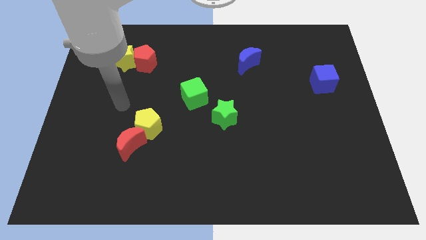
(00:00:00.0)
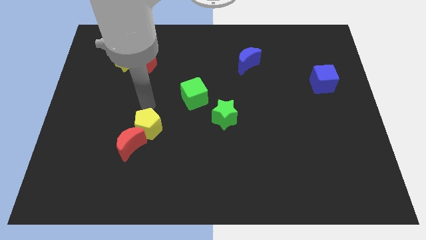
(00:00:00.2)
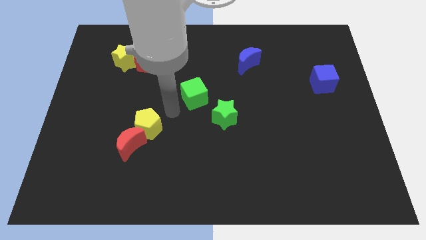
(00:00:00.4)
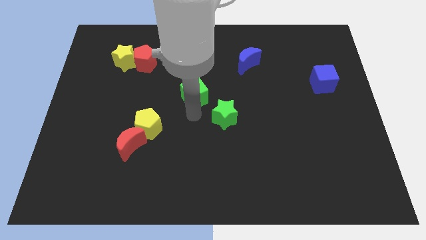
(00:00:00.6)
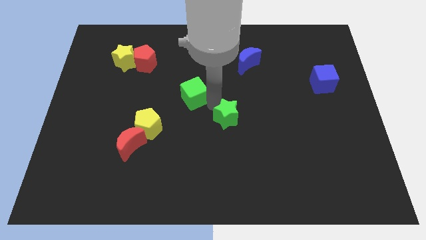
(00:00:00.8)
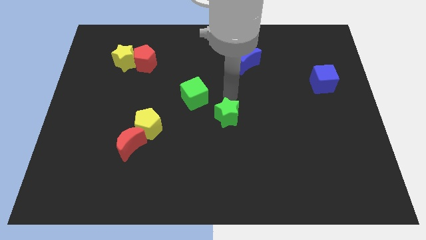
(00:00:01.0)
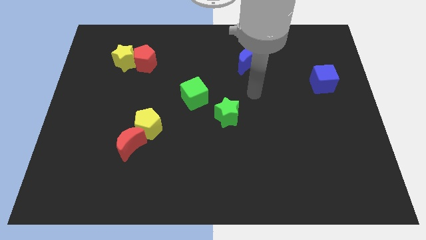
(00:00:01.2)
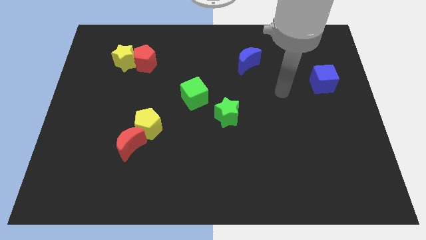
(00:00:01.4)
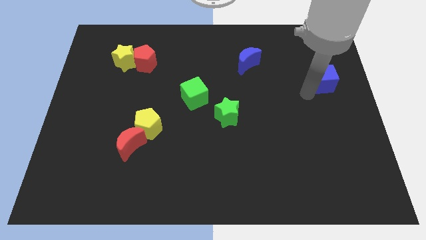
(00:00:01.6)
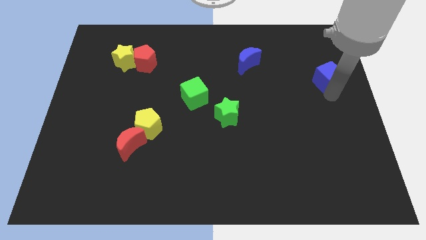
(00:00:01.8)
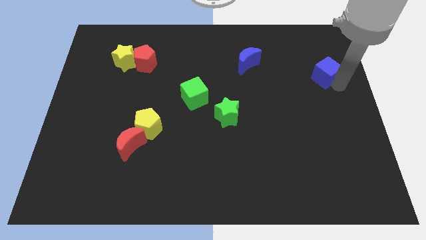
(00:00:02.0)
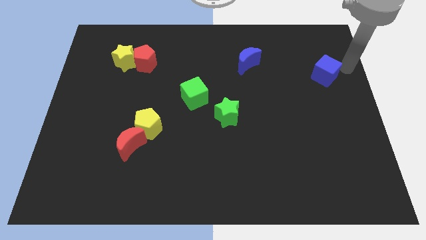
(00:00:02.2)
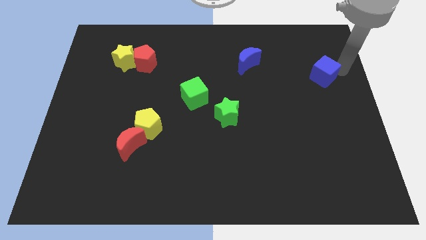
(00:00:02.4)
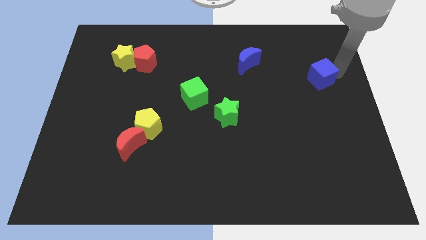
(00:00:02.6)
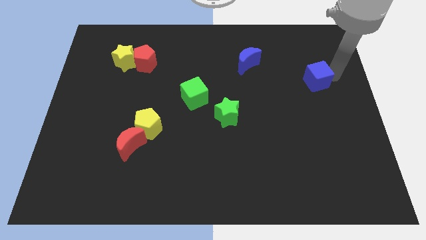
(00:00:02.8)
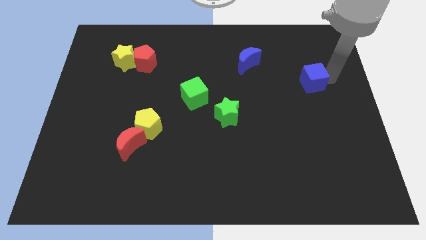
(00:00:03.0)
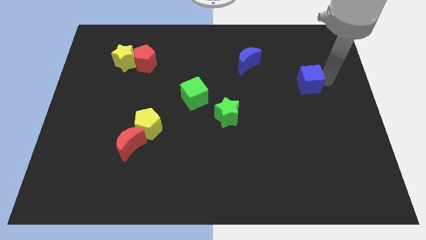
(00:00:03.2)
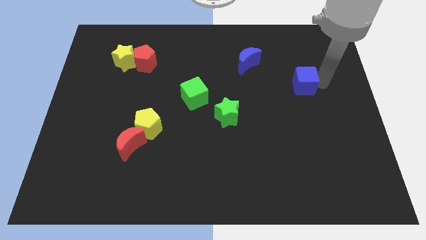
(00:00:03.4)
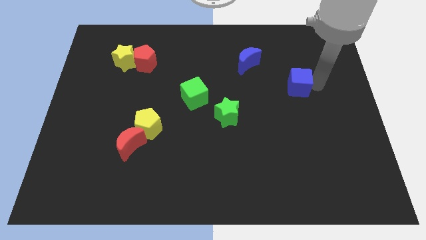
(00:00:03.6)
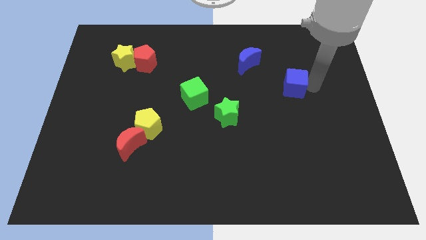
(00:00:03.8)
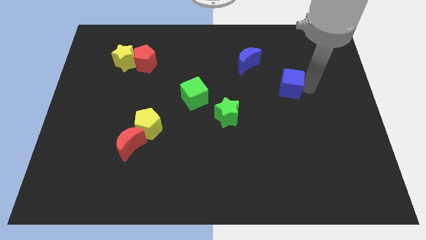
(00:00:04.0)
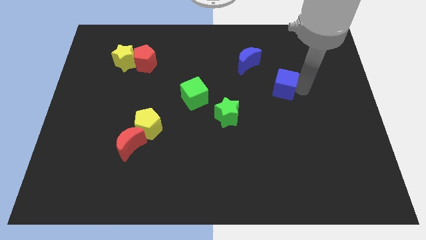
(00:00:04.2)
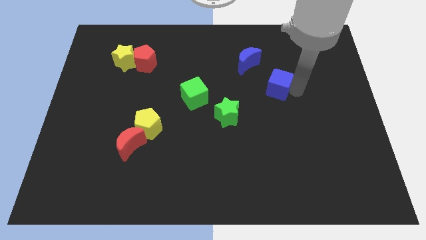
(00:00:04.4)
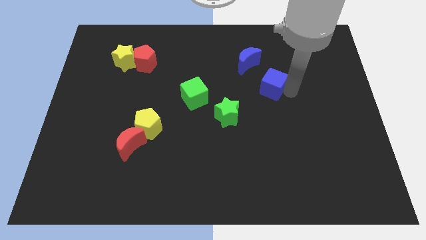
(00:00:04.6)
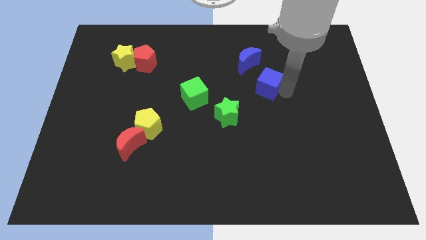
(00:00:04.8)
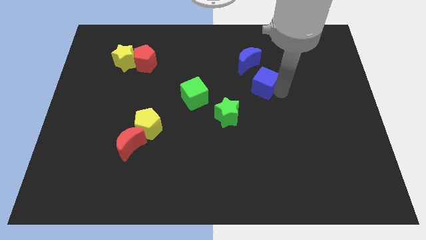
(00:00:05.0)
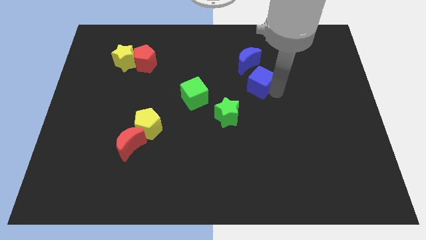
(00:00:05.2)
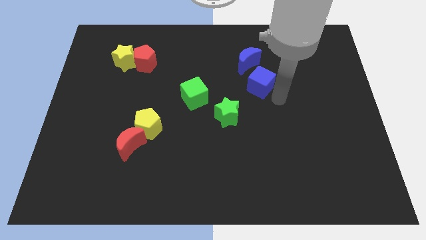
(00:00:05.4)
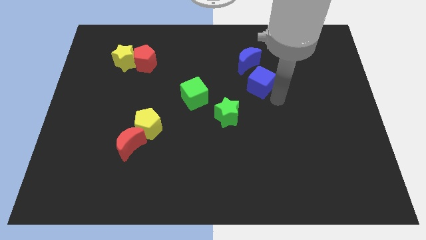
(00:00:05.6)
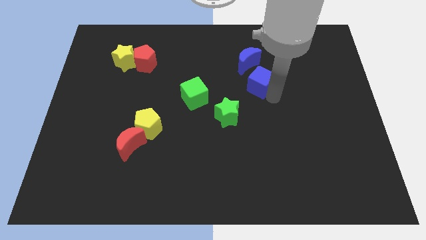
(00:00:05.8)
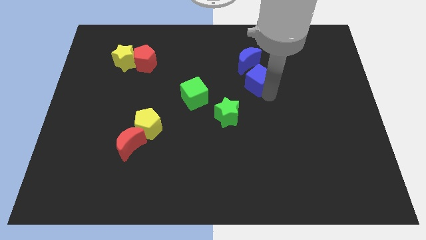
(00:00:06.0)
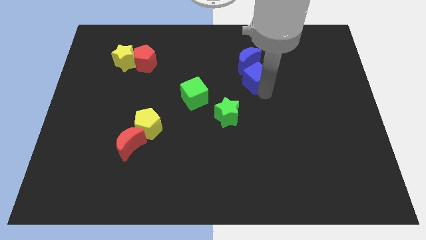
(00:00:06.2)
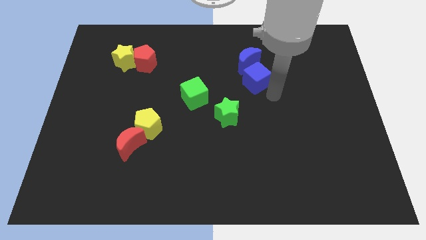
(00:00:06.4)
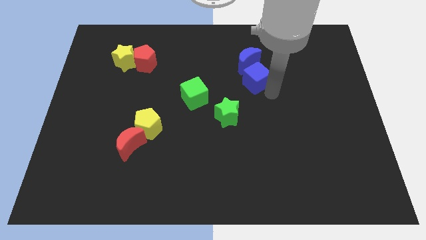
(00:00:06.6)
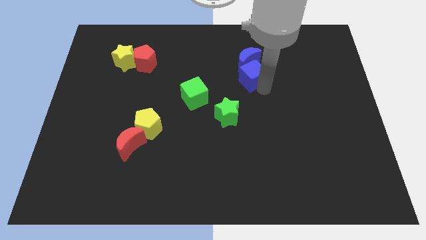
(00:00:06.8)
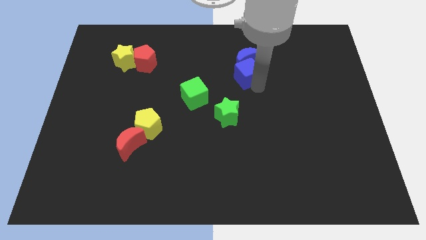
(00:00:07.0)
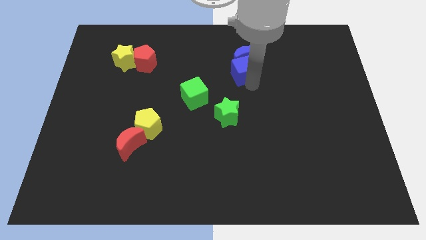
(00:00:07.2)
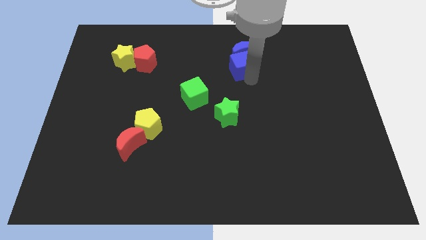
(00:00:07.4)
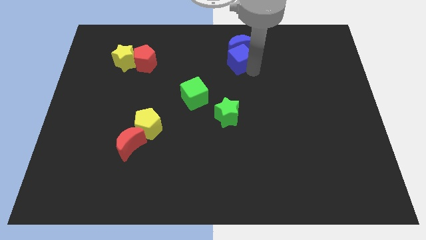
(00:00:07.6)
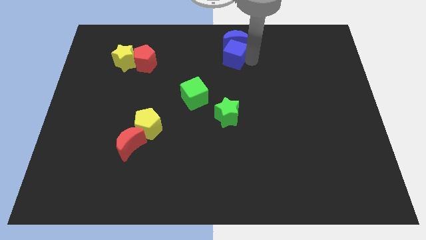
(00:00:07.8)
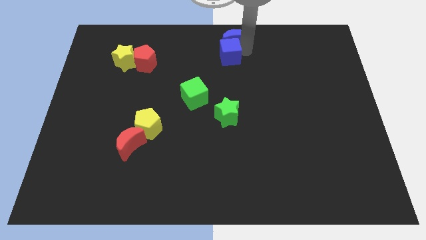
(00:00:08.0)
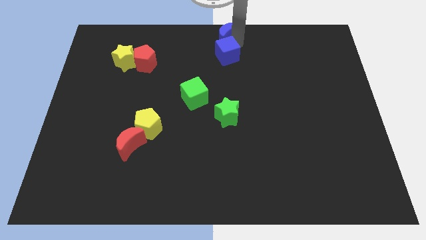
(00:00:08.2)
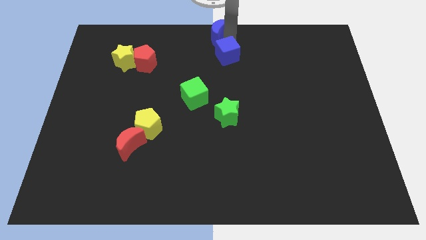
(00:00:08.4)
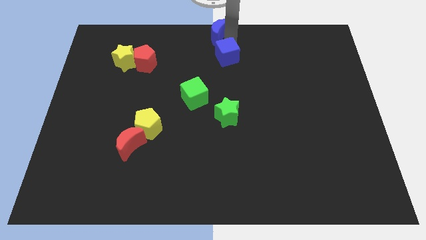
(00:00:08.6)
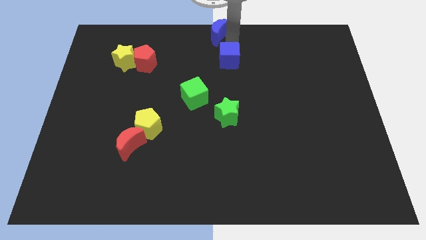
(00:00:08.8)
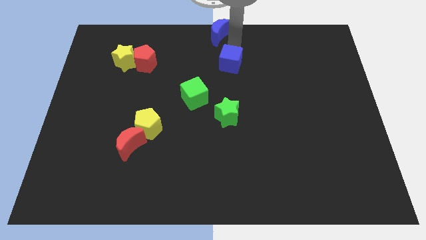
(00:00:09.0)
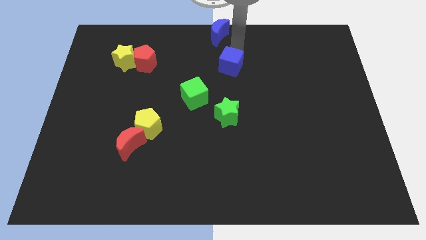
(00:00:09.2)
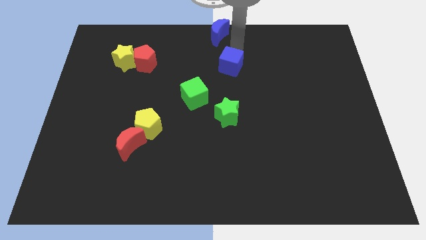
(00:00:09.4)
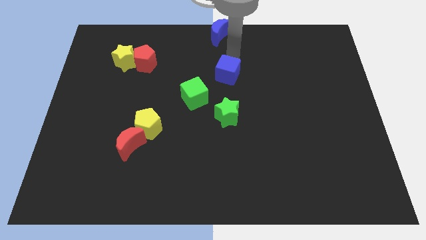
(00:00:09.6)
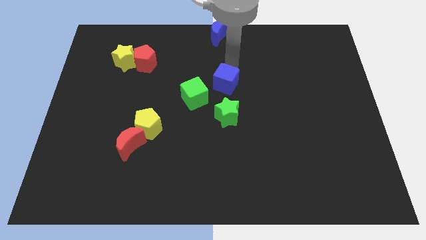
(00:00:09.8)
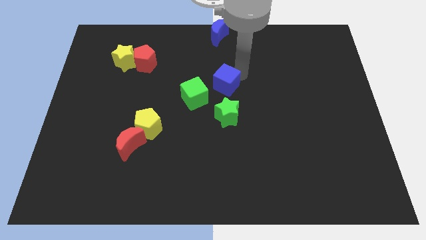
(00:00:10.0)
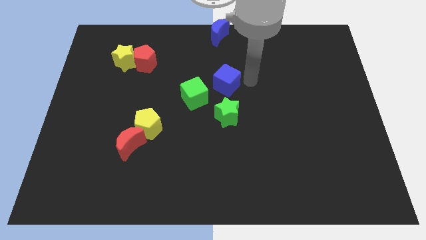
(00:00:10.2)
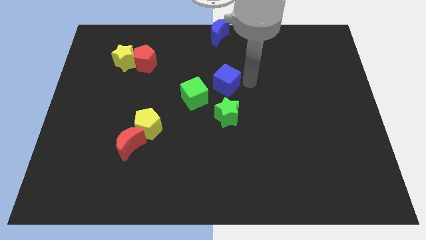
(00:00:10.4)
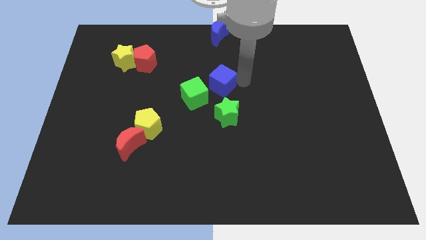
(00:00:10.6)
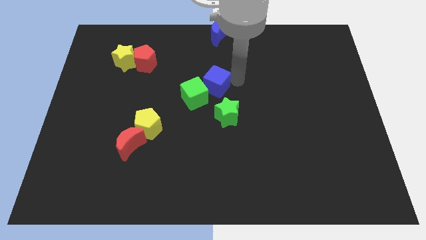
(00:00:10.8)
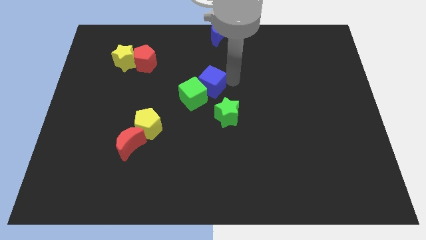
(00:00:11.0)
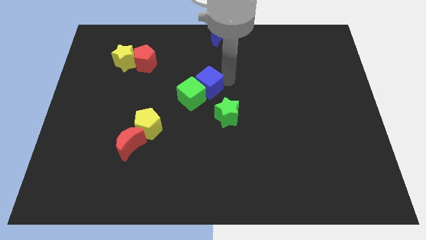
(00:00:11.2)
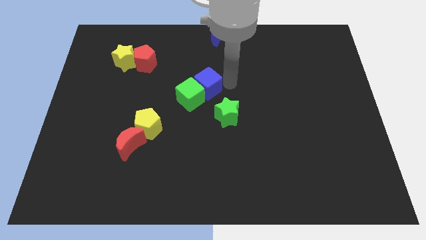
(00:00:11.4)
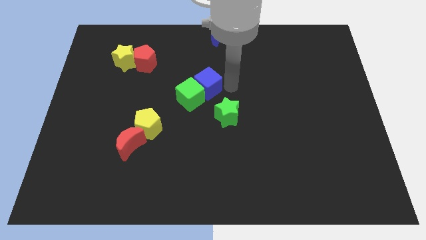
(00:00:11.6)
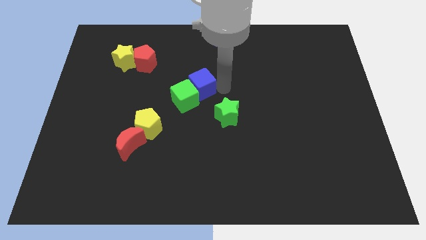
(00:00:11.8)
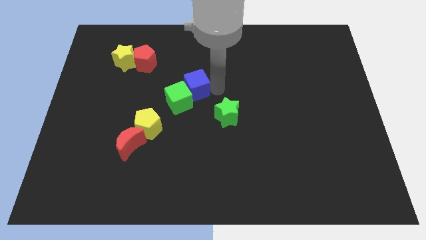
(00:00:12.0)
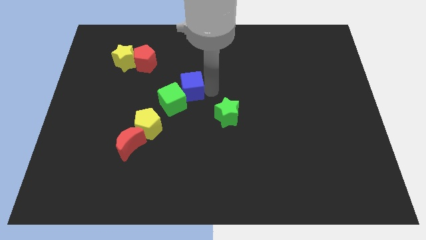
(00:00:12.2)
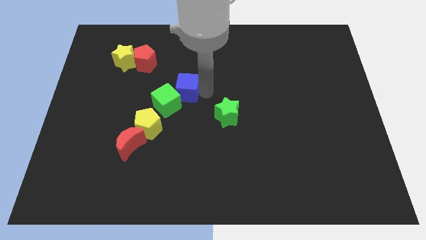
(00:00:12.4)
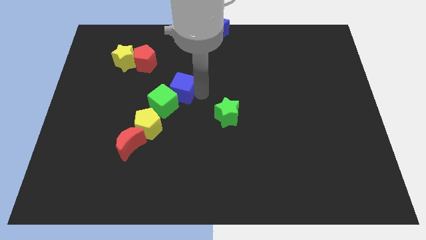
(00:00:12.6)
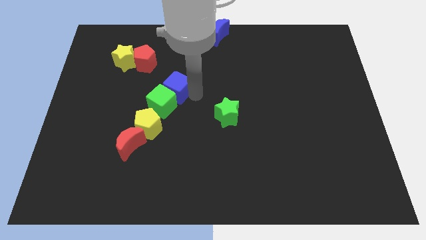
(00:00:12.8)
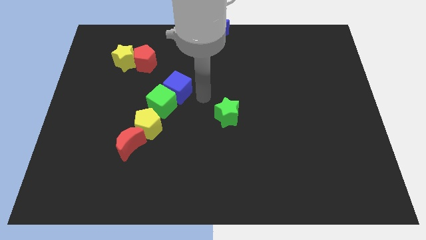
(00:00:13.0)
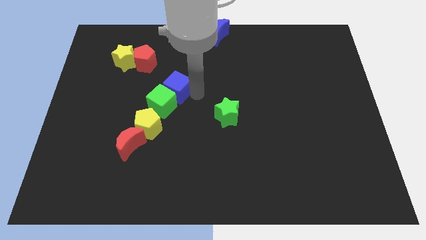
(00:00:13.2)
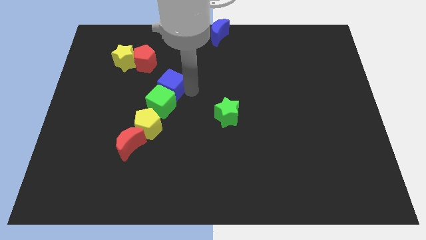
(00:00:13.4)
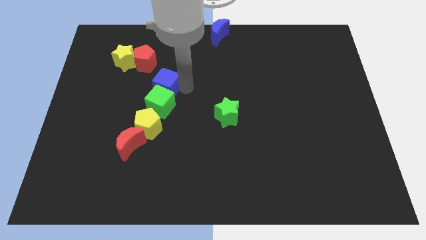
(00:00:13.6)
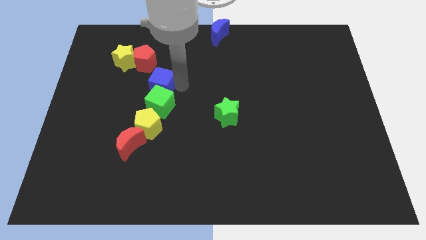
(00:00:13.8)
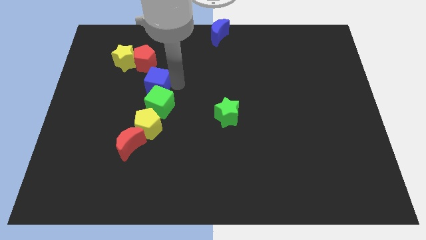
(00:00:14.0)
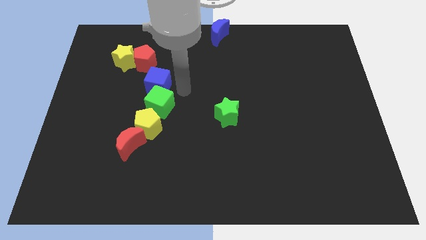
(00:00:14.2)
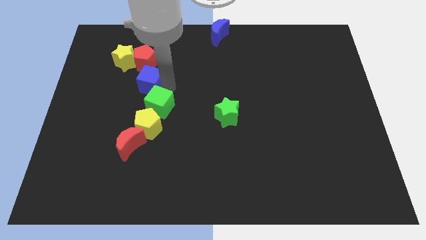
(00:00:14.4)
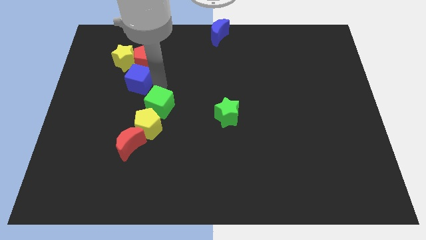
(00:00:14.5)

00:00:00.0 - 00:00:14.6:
move the blue cube to the bottom left side of the red pentagon
